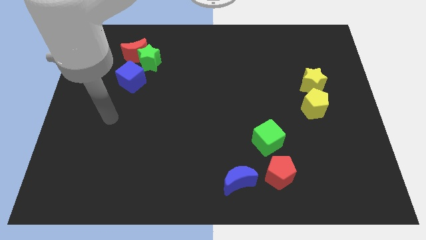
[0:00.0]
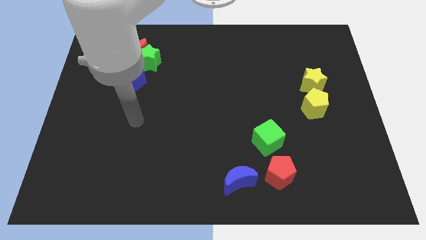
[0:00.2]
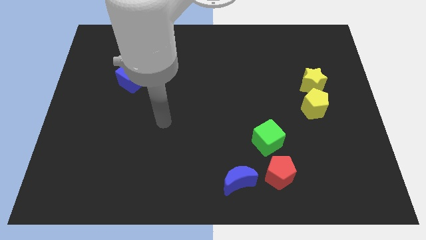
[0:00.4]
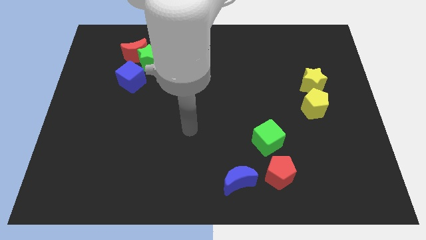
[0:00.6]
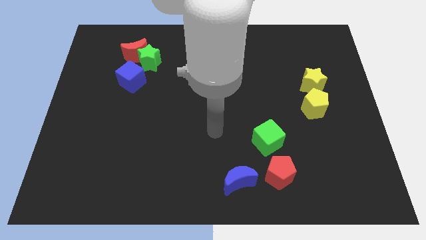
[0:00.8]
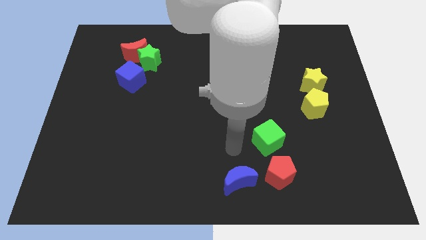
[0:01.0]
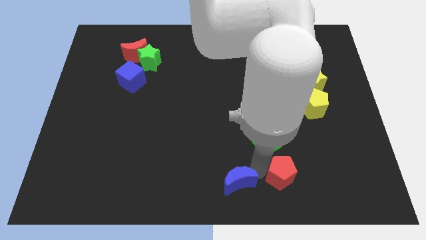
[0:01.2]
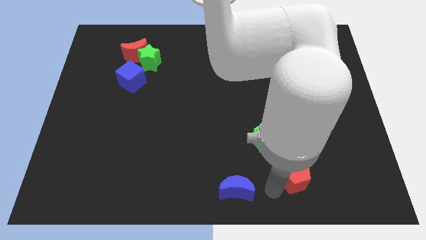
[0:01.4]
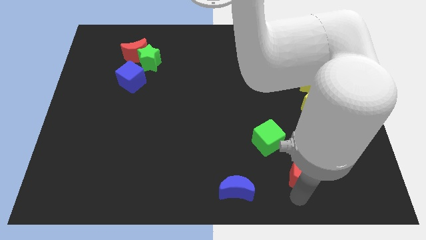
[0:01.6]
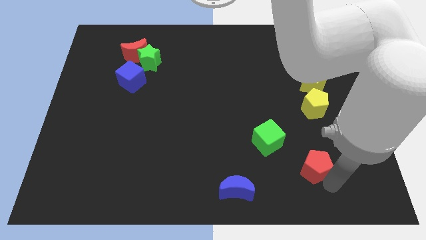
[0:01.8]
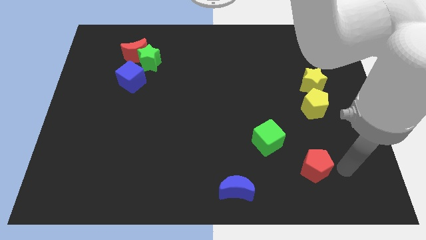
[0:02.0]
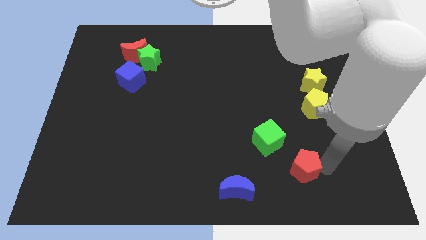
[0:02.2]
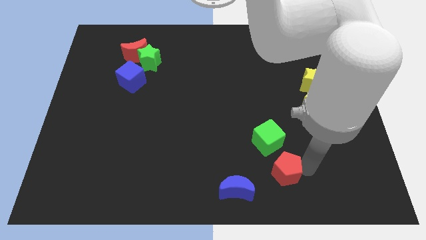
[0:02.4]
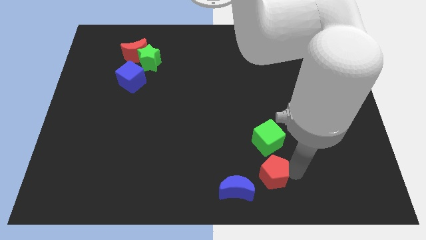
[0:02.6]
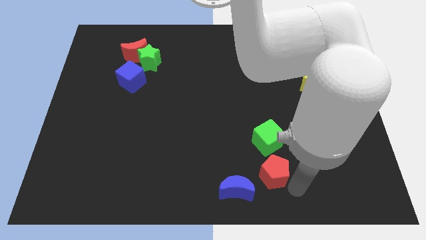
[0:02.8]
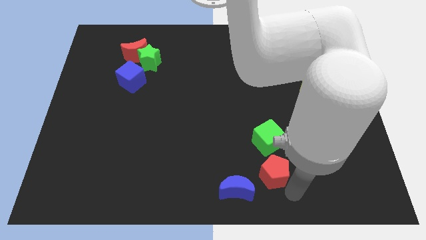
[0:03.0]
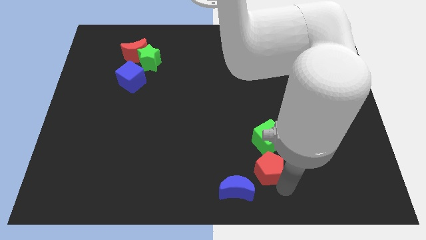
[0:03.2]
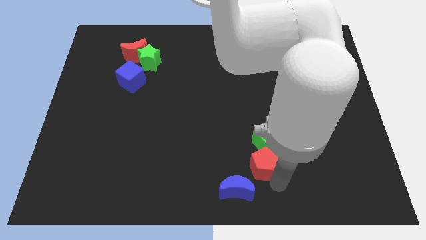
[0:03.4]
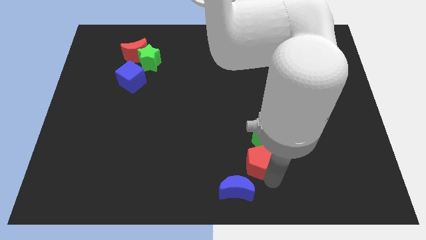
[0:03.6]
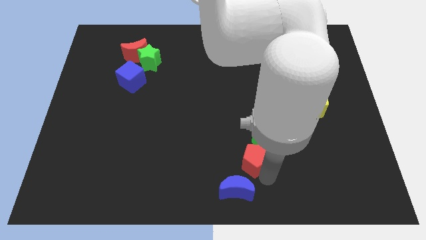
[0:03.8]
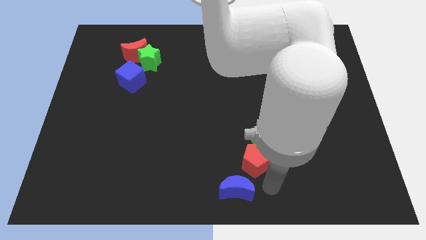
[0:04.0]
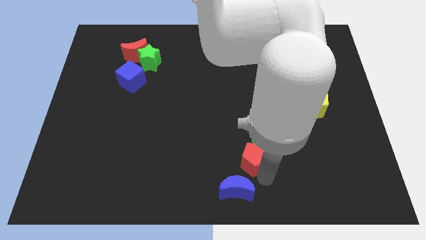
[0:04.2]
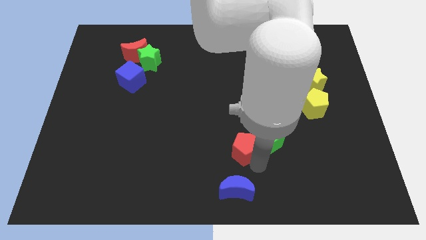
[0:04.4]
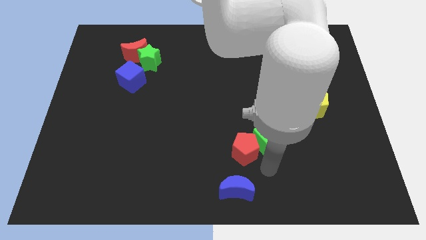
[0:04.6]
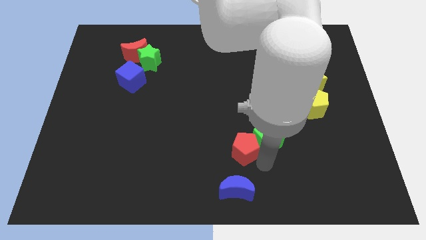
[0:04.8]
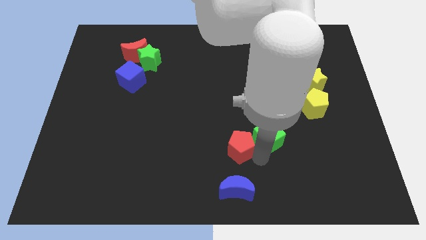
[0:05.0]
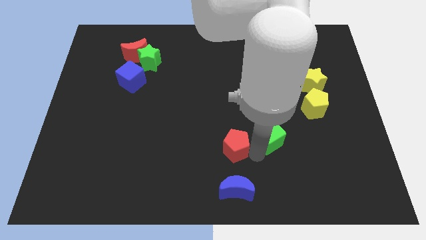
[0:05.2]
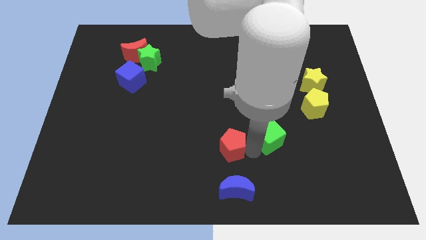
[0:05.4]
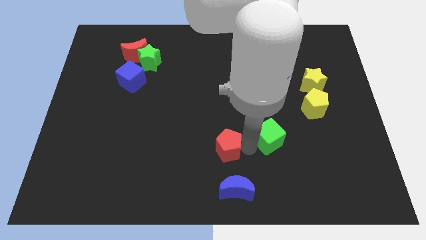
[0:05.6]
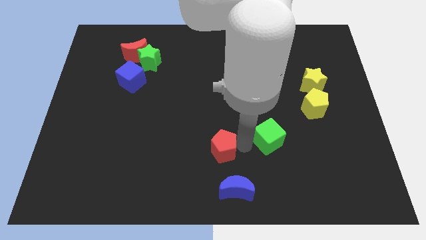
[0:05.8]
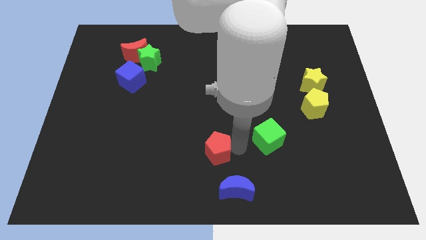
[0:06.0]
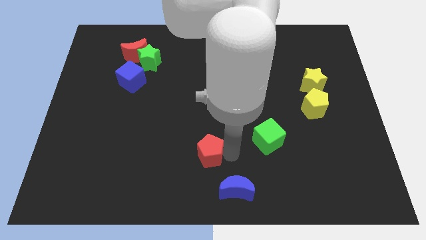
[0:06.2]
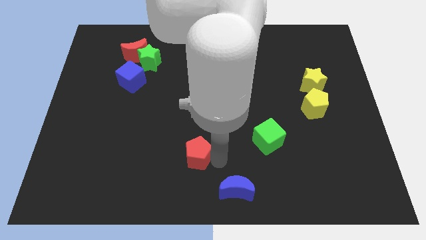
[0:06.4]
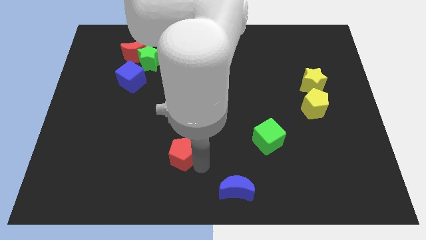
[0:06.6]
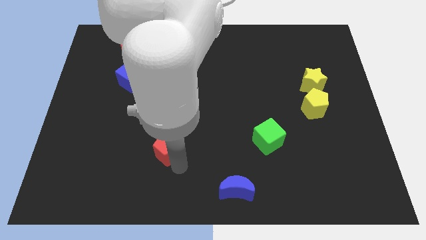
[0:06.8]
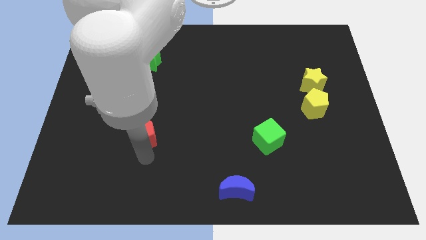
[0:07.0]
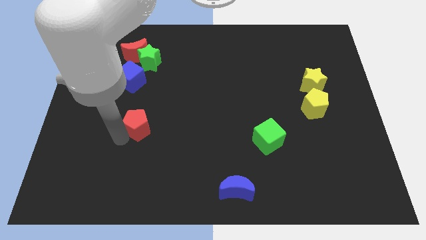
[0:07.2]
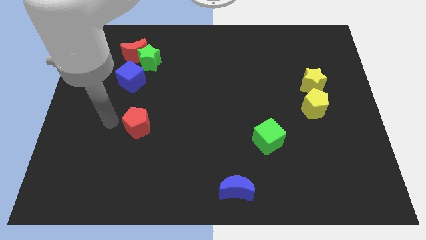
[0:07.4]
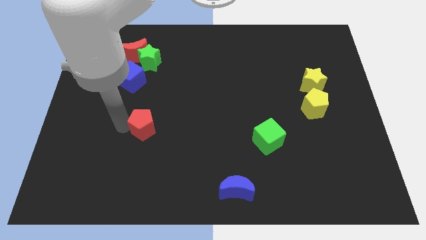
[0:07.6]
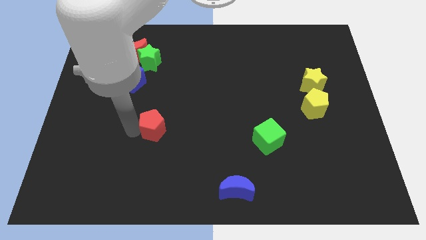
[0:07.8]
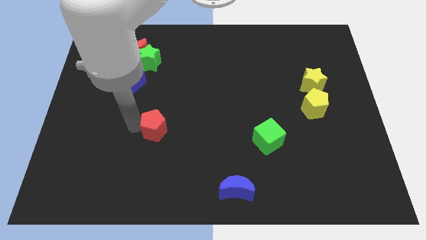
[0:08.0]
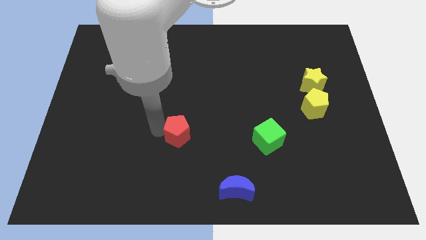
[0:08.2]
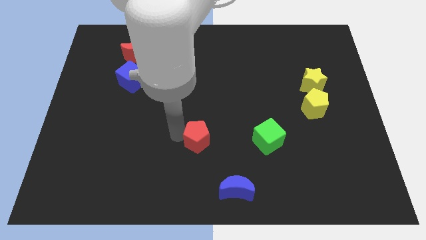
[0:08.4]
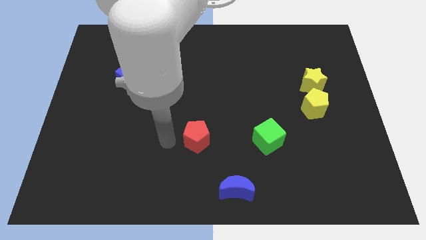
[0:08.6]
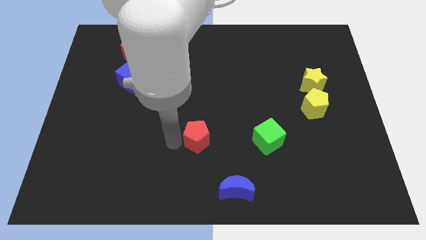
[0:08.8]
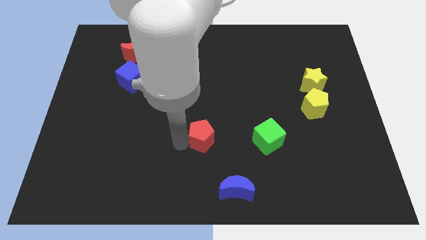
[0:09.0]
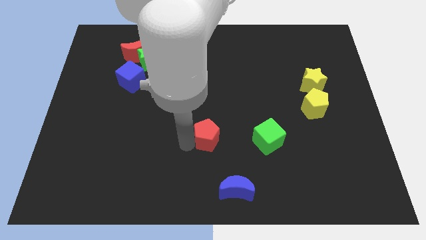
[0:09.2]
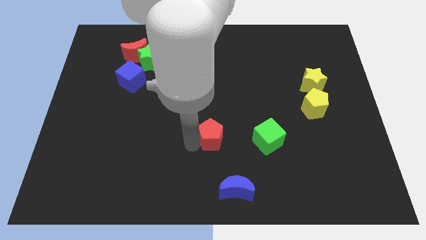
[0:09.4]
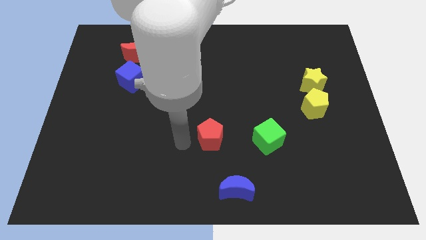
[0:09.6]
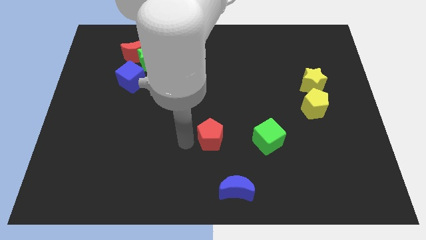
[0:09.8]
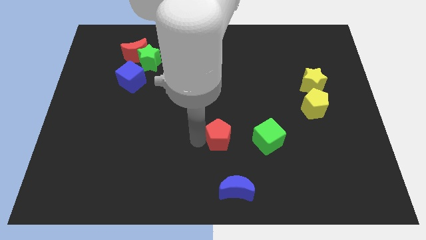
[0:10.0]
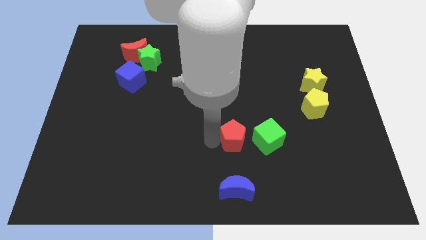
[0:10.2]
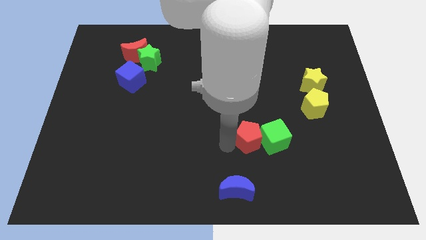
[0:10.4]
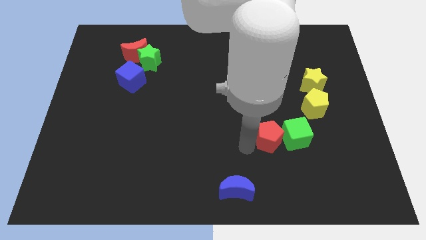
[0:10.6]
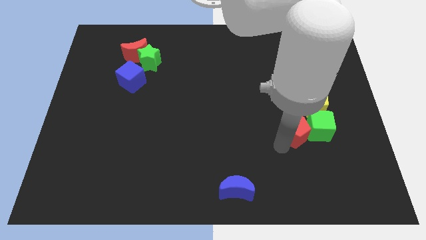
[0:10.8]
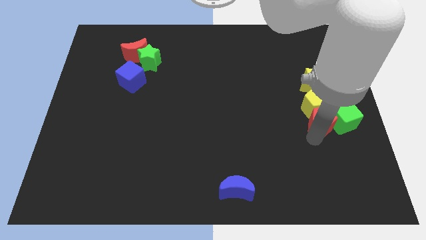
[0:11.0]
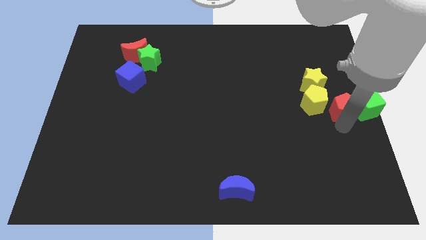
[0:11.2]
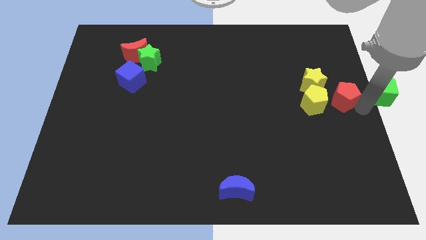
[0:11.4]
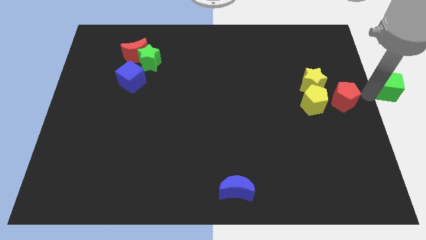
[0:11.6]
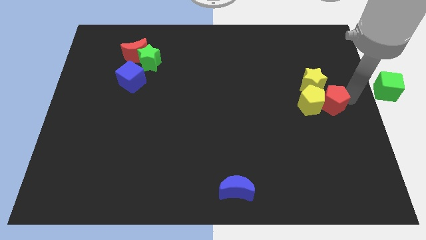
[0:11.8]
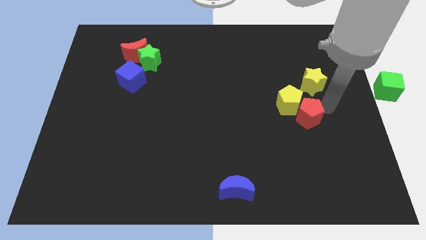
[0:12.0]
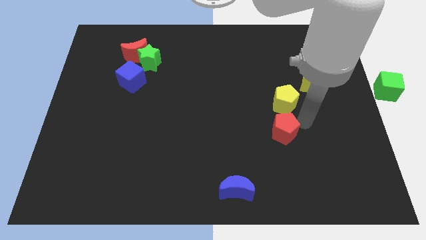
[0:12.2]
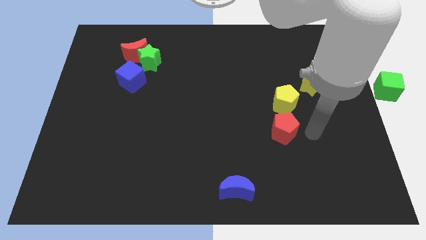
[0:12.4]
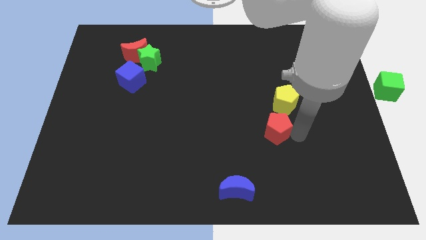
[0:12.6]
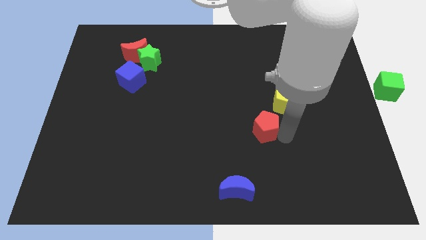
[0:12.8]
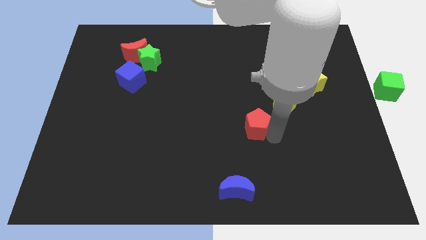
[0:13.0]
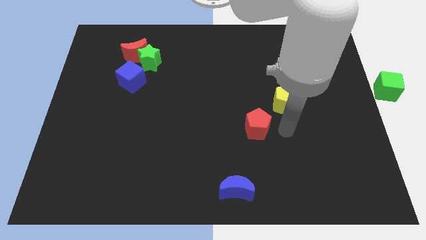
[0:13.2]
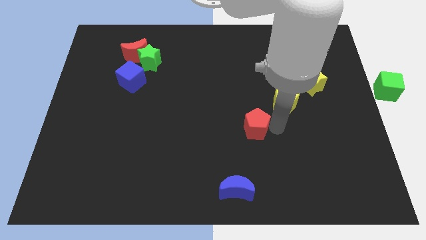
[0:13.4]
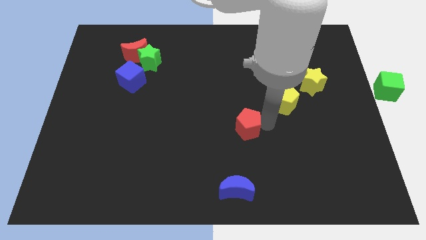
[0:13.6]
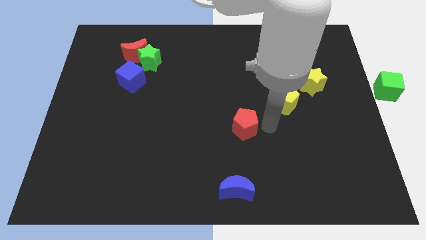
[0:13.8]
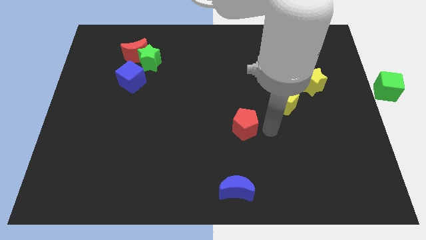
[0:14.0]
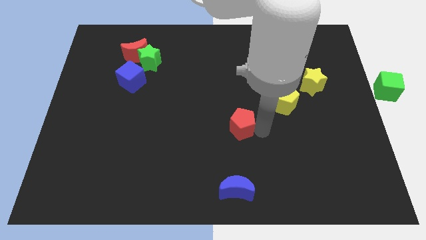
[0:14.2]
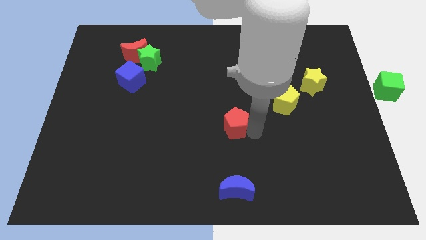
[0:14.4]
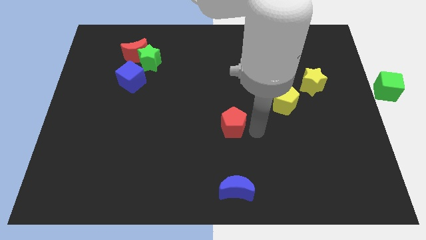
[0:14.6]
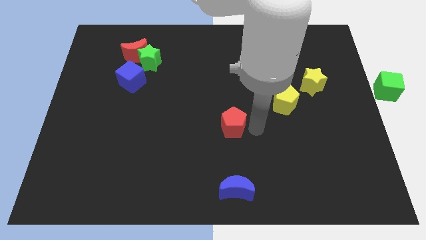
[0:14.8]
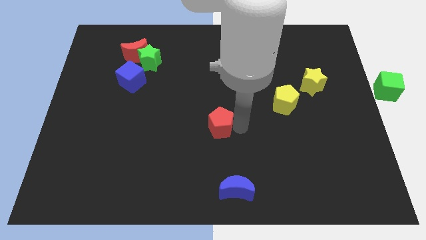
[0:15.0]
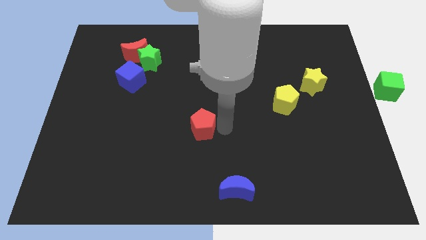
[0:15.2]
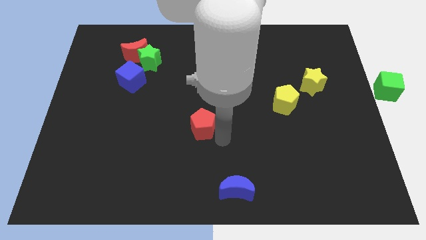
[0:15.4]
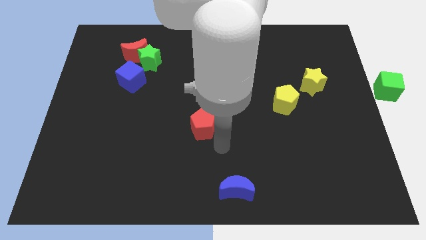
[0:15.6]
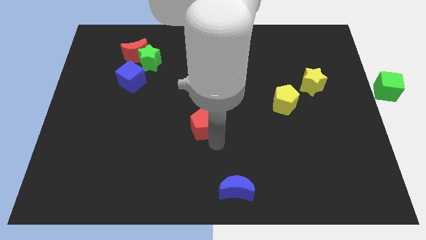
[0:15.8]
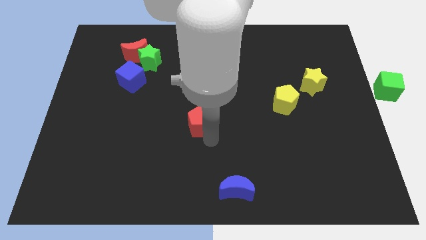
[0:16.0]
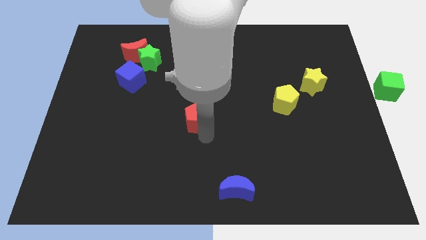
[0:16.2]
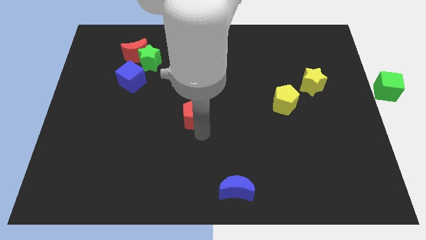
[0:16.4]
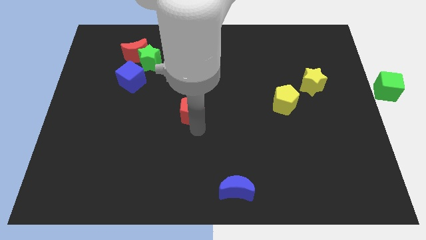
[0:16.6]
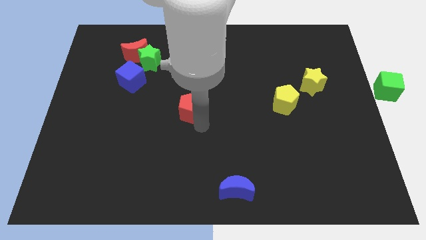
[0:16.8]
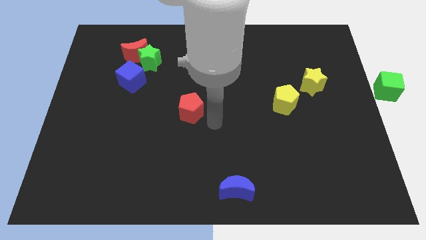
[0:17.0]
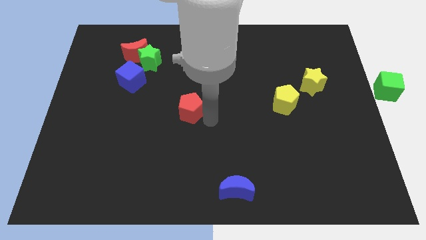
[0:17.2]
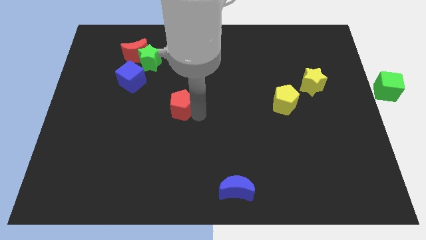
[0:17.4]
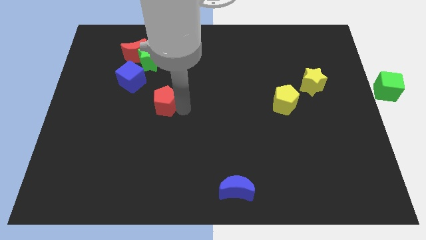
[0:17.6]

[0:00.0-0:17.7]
put the red pentagon diagonally down and to the right of the blue cube
